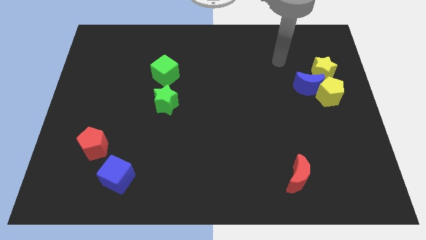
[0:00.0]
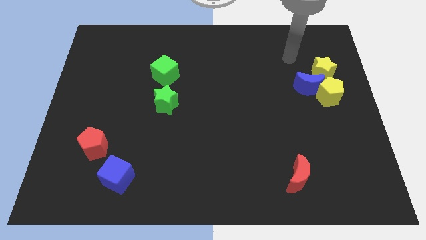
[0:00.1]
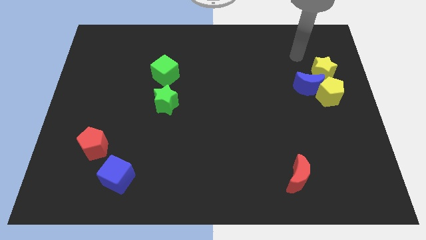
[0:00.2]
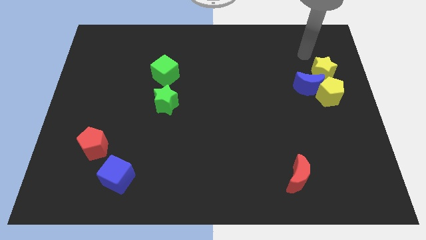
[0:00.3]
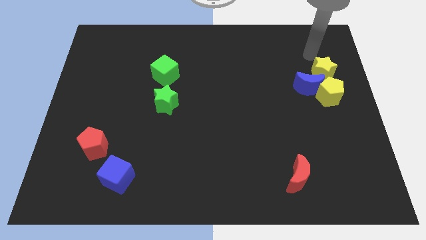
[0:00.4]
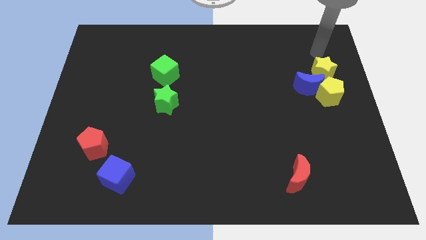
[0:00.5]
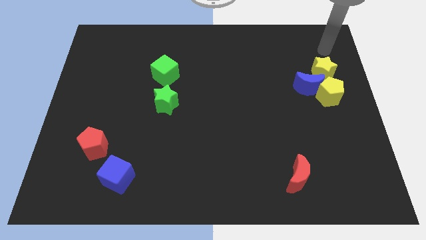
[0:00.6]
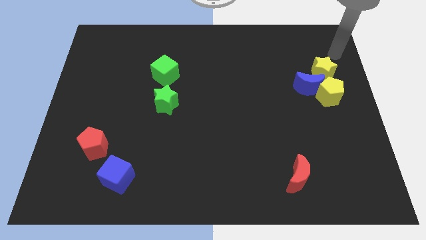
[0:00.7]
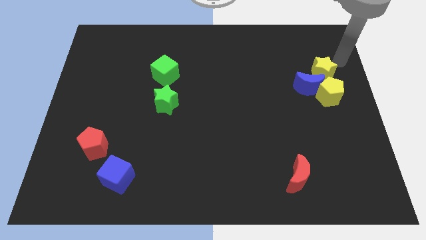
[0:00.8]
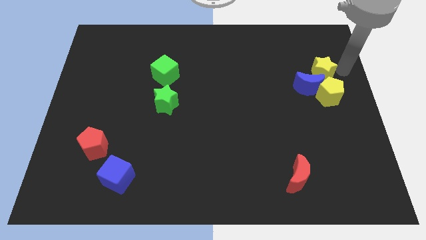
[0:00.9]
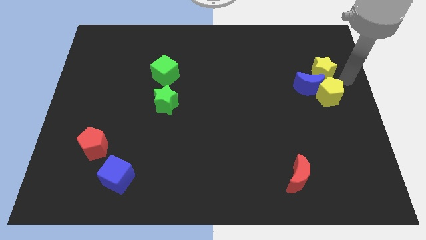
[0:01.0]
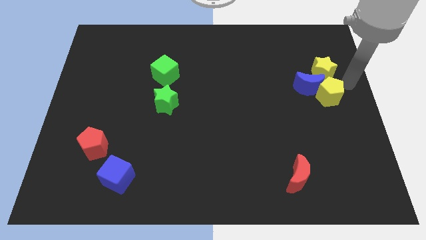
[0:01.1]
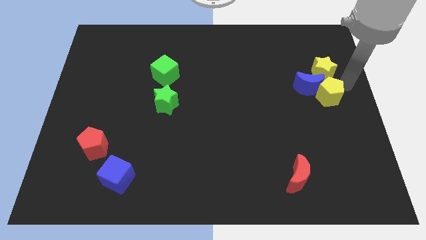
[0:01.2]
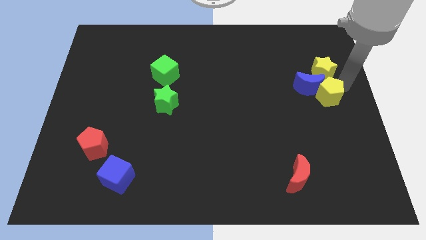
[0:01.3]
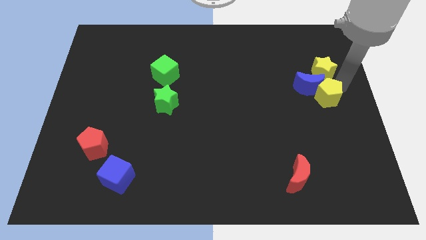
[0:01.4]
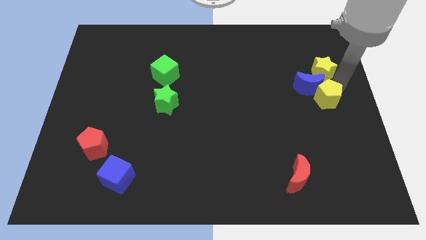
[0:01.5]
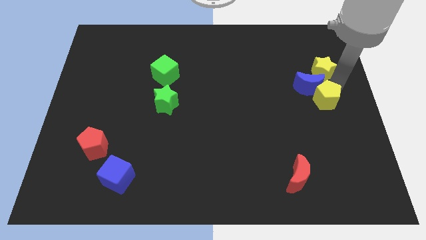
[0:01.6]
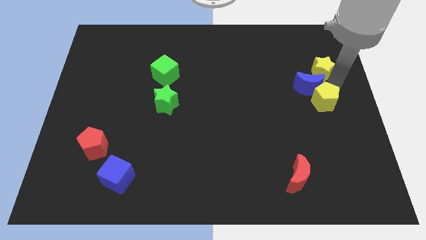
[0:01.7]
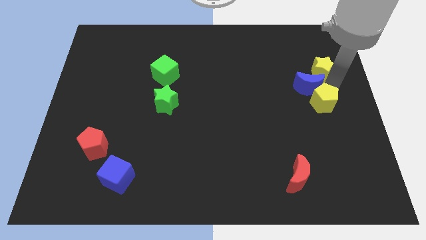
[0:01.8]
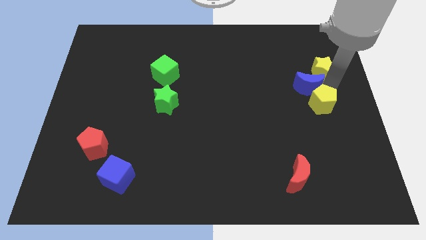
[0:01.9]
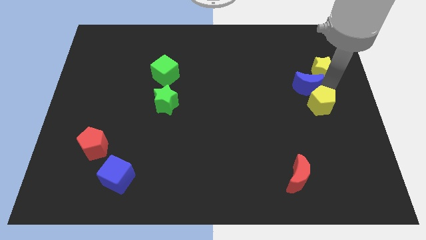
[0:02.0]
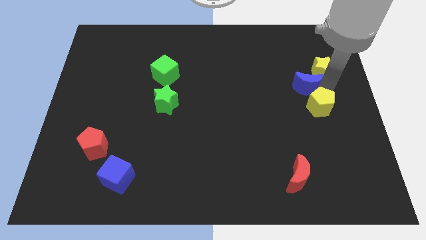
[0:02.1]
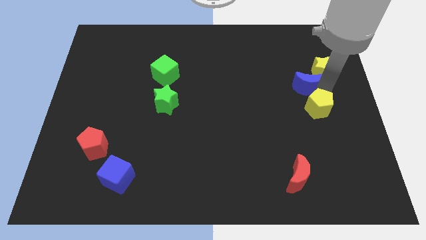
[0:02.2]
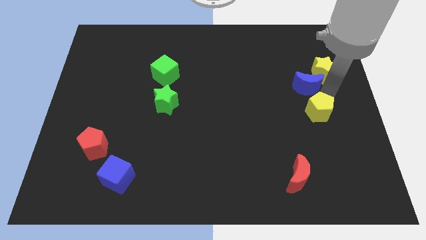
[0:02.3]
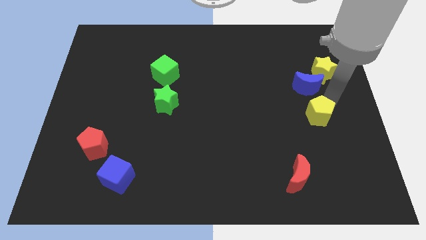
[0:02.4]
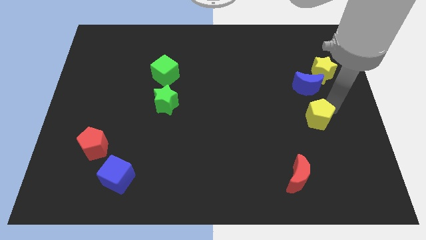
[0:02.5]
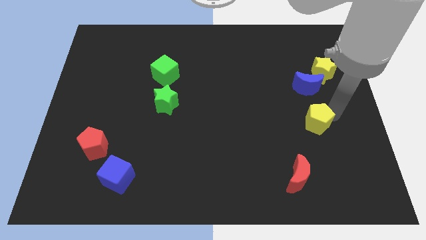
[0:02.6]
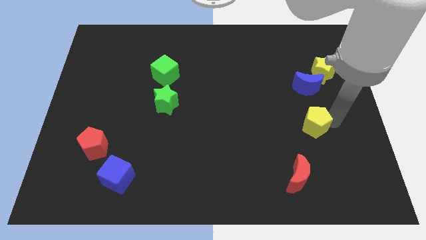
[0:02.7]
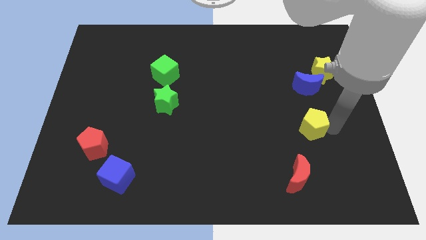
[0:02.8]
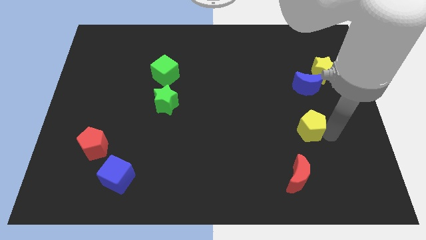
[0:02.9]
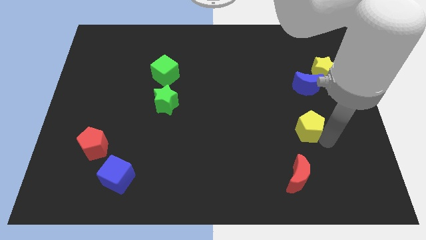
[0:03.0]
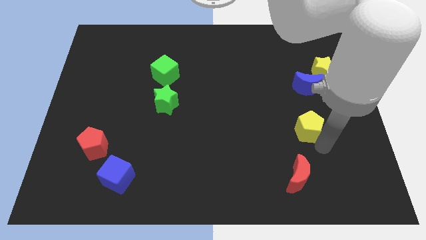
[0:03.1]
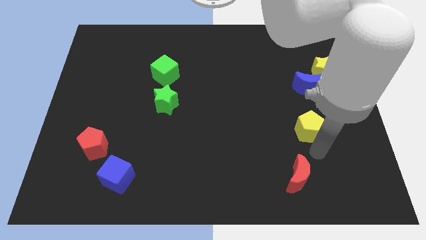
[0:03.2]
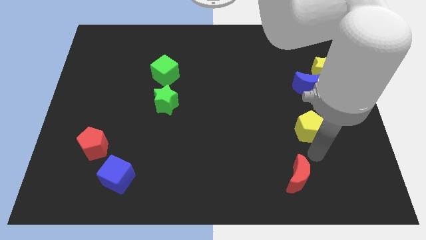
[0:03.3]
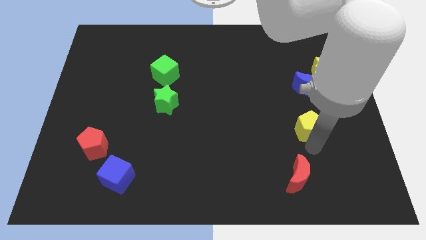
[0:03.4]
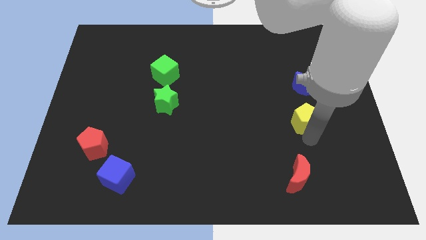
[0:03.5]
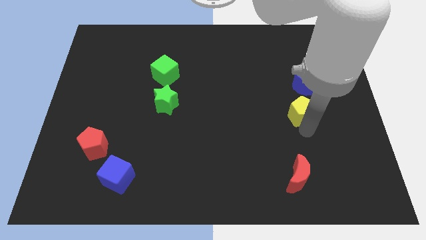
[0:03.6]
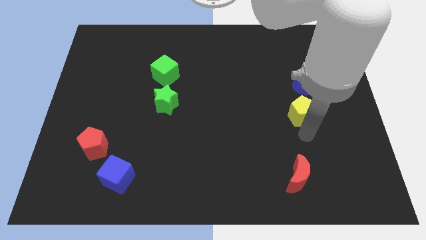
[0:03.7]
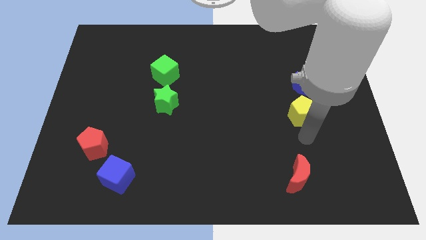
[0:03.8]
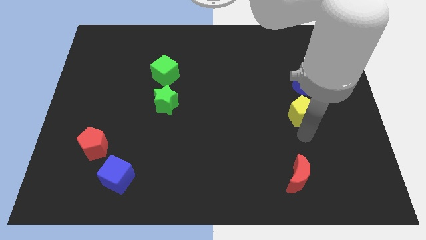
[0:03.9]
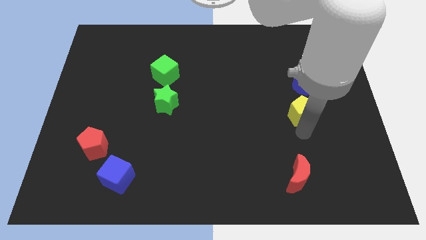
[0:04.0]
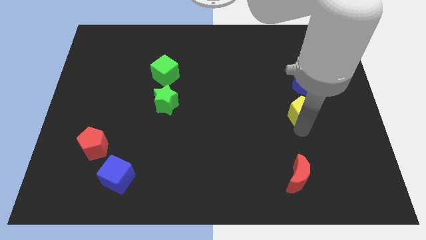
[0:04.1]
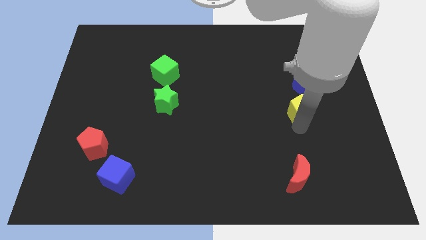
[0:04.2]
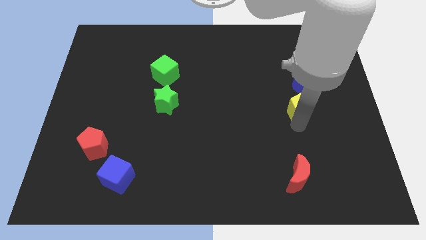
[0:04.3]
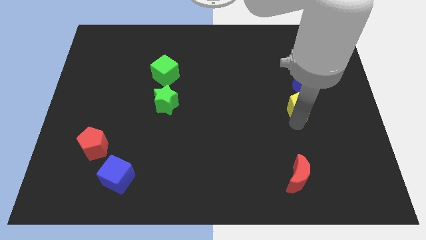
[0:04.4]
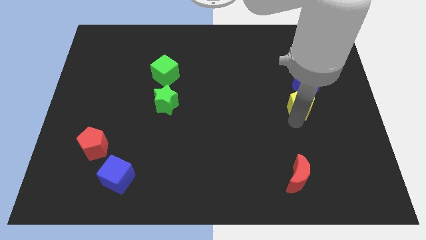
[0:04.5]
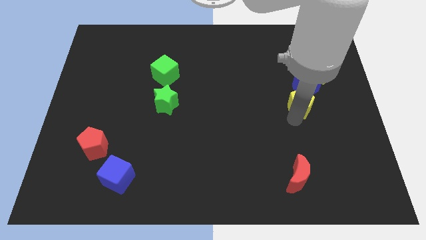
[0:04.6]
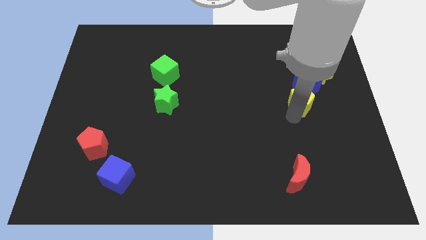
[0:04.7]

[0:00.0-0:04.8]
slide the yellow pentagon to the bottom left side of the yellow star

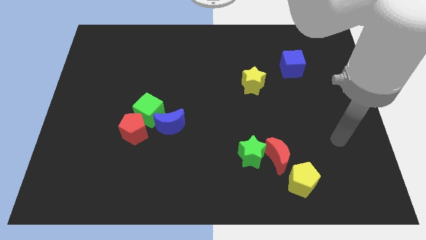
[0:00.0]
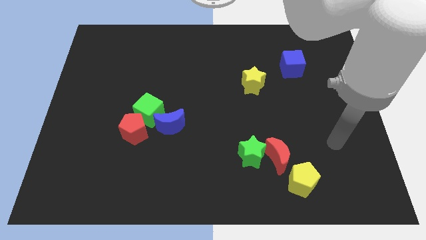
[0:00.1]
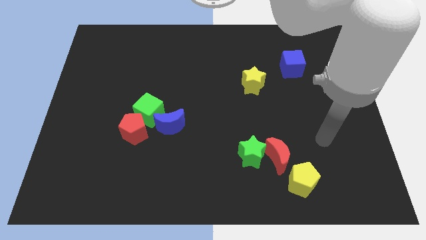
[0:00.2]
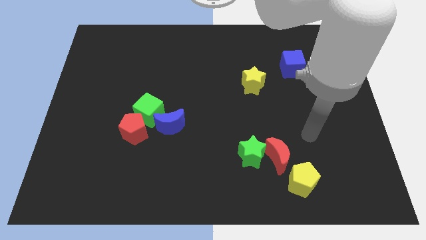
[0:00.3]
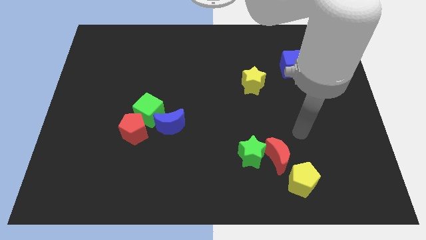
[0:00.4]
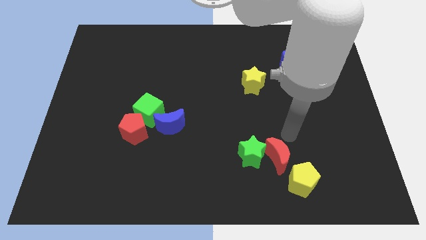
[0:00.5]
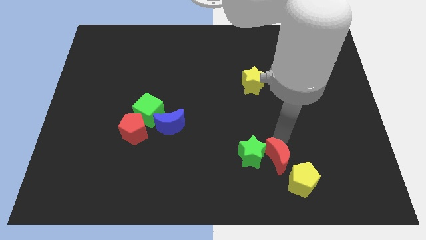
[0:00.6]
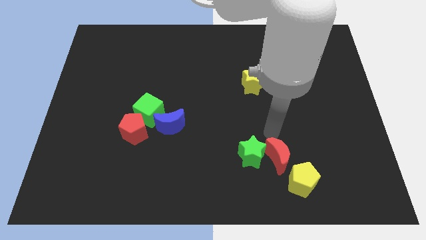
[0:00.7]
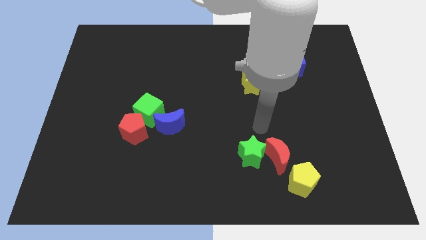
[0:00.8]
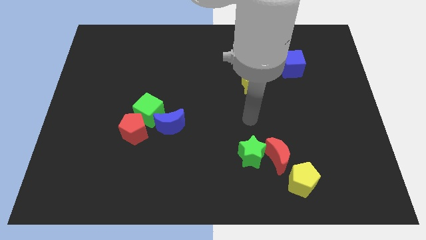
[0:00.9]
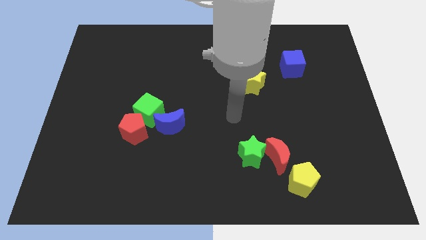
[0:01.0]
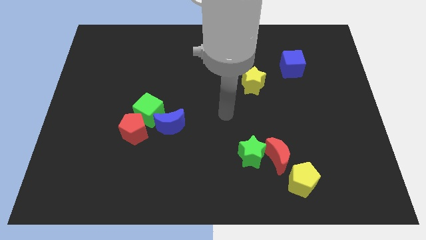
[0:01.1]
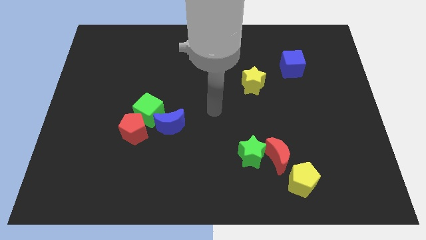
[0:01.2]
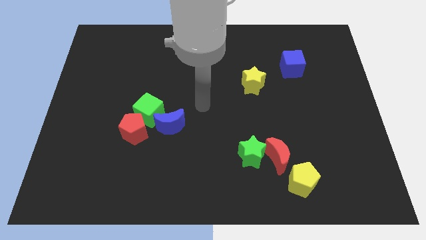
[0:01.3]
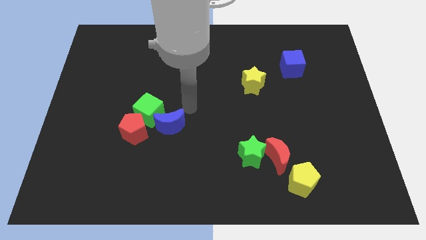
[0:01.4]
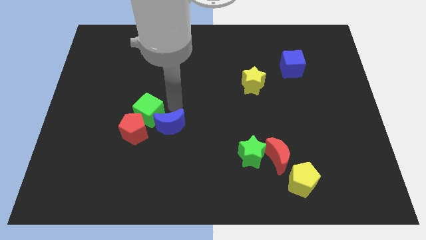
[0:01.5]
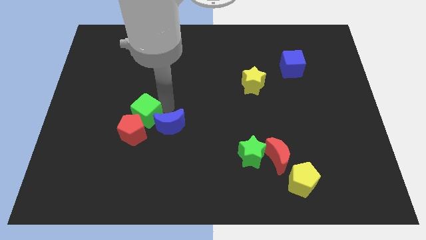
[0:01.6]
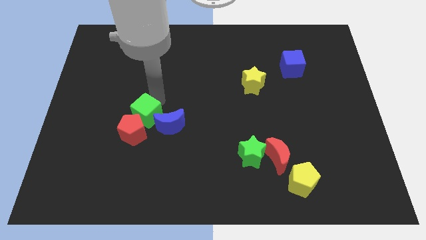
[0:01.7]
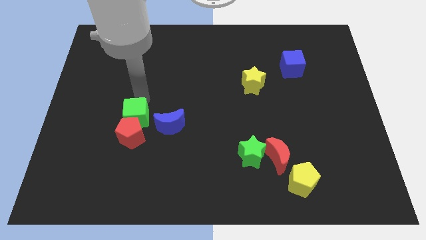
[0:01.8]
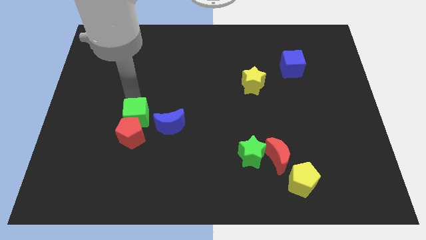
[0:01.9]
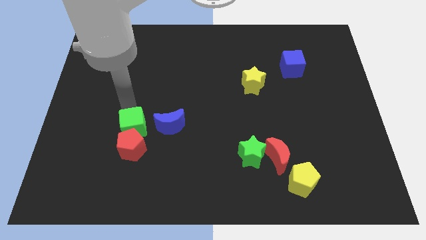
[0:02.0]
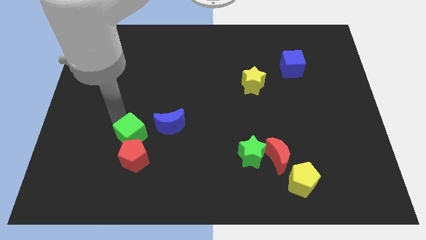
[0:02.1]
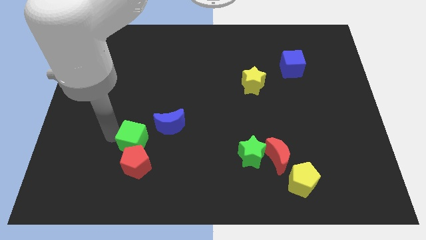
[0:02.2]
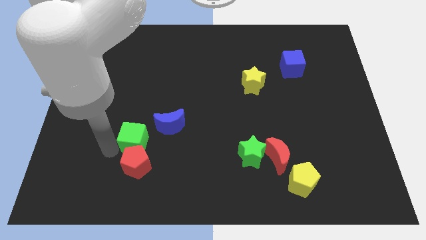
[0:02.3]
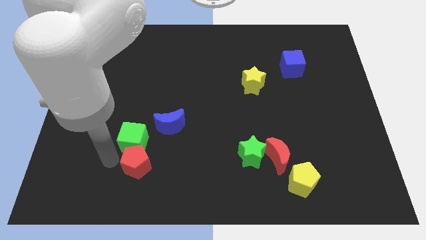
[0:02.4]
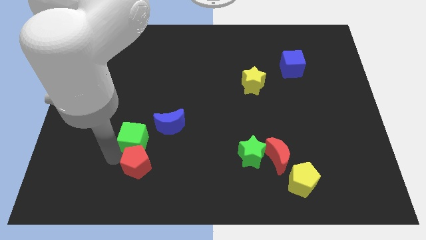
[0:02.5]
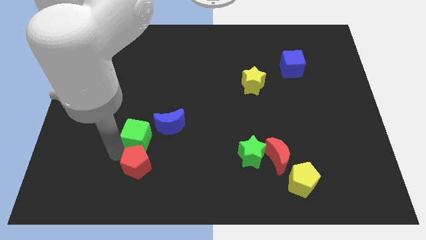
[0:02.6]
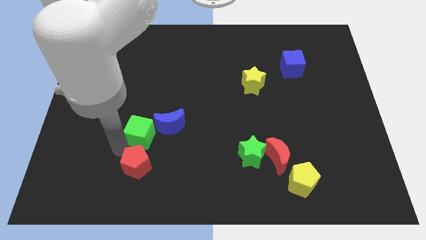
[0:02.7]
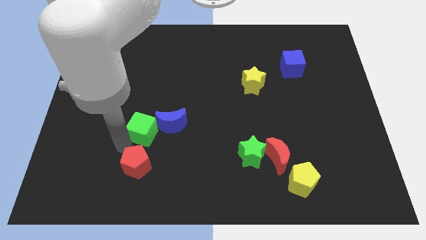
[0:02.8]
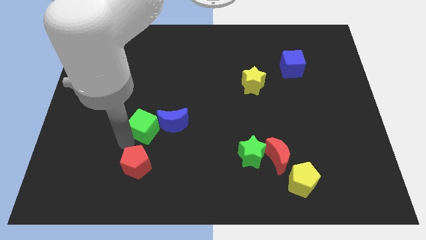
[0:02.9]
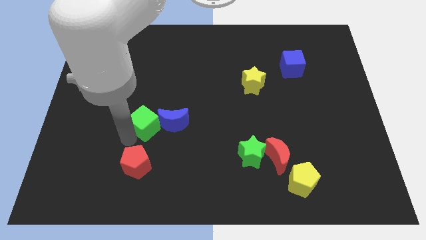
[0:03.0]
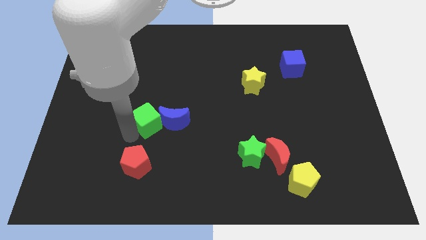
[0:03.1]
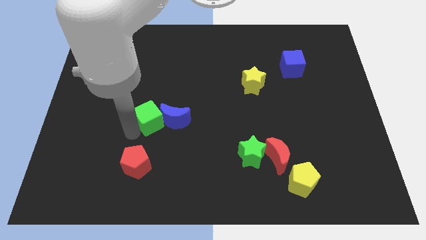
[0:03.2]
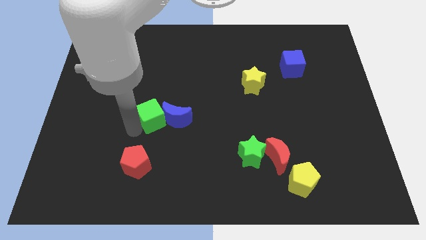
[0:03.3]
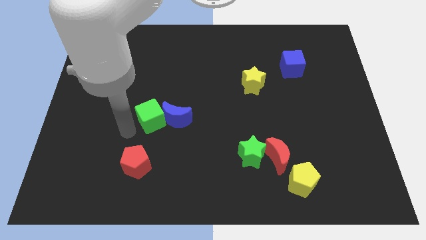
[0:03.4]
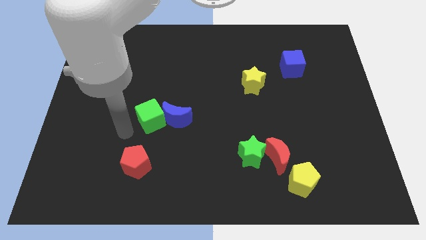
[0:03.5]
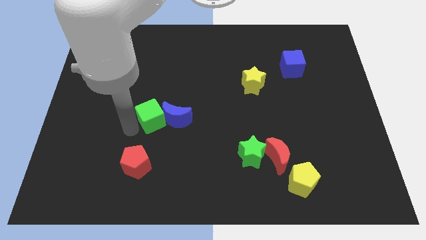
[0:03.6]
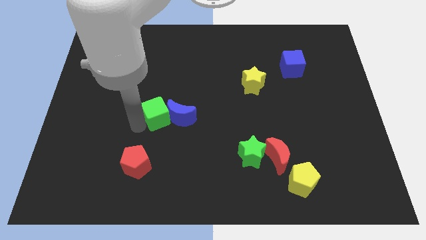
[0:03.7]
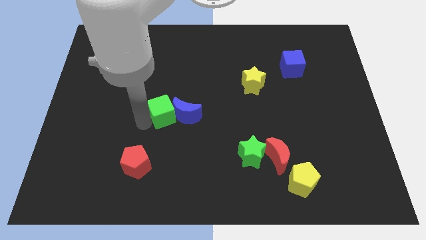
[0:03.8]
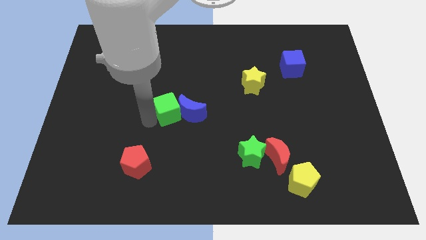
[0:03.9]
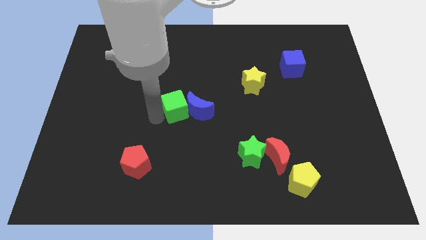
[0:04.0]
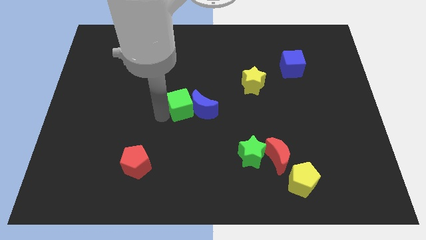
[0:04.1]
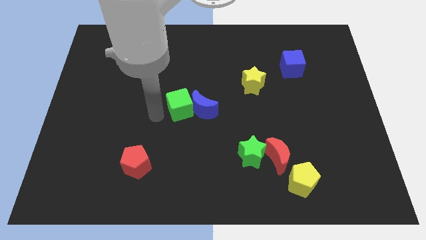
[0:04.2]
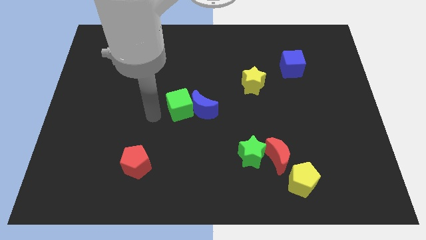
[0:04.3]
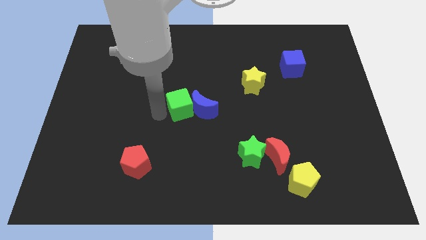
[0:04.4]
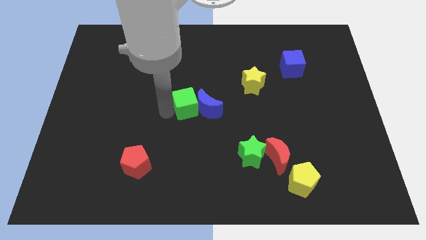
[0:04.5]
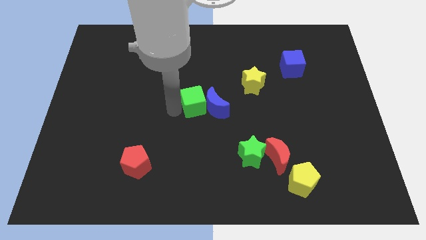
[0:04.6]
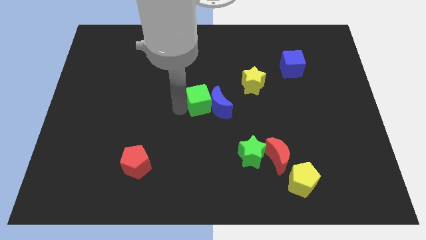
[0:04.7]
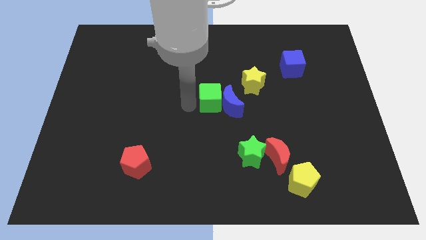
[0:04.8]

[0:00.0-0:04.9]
push the green cube diagonally down and to the left of the yellow star
